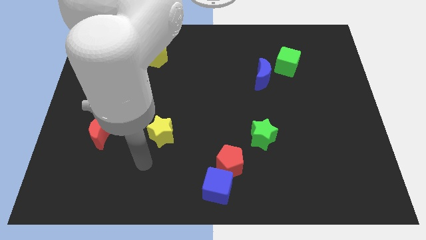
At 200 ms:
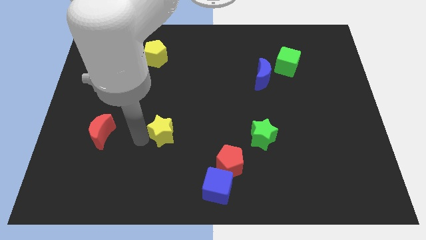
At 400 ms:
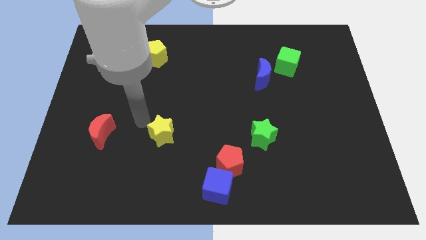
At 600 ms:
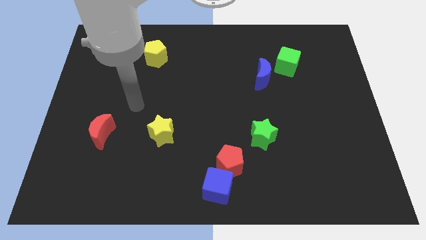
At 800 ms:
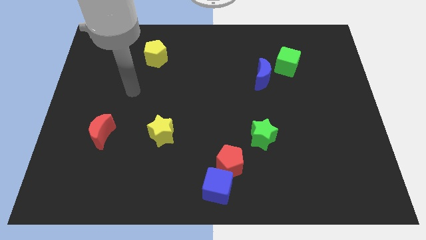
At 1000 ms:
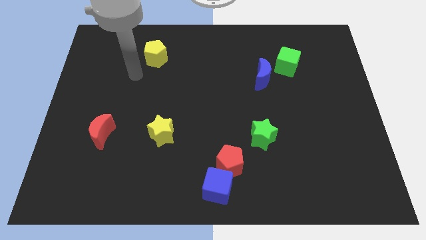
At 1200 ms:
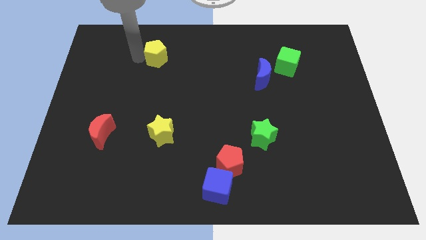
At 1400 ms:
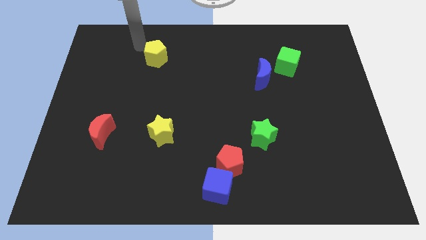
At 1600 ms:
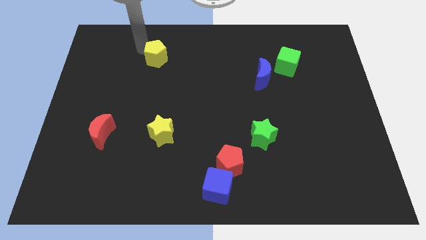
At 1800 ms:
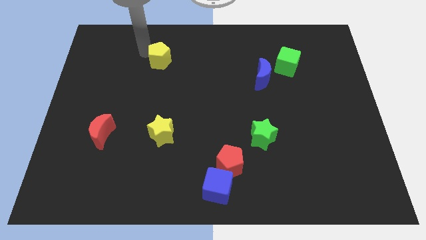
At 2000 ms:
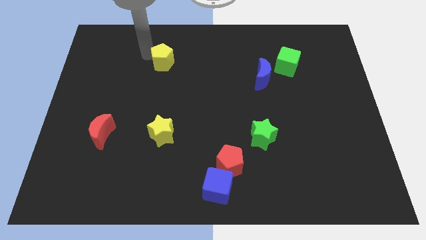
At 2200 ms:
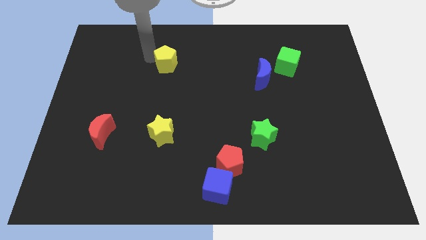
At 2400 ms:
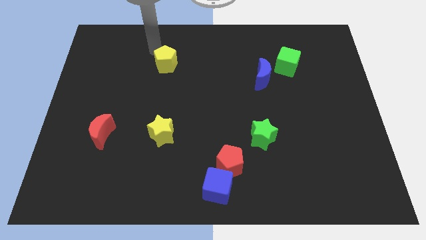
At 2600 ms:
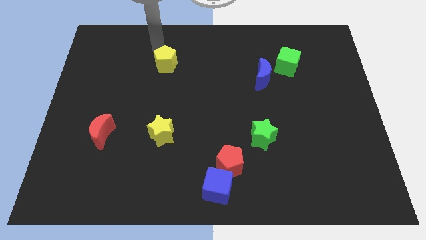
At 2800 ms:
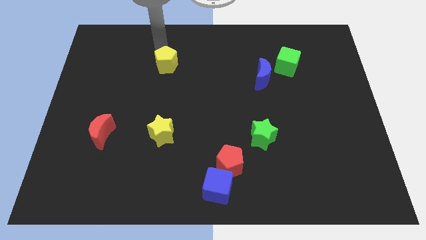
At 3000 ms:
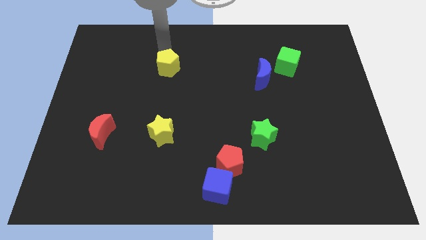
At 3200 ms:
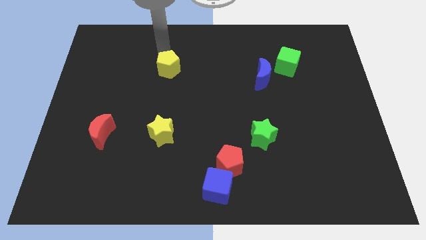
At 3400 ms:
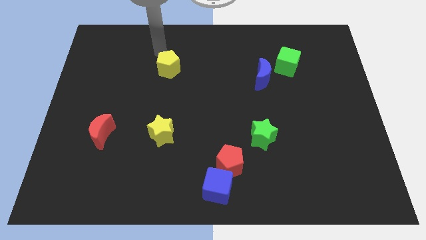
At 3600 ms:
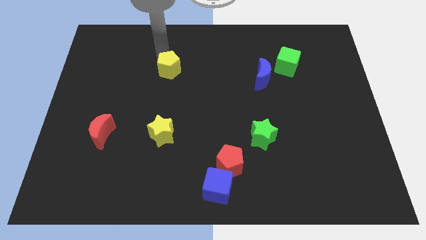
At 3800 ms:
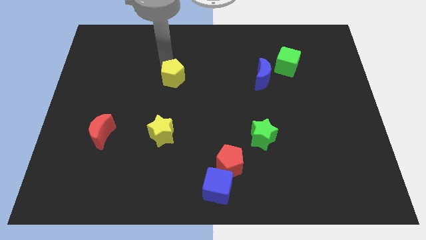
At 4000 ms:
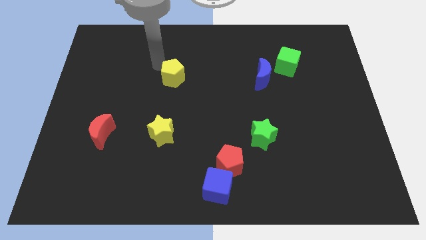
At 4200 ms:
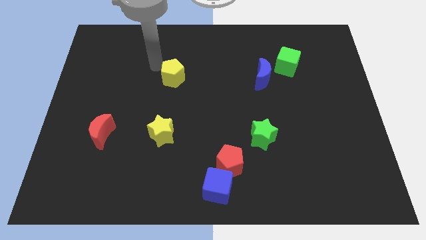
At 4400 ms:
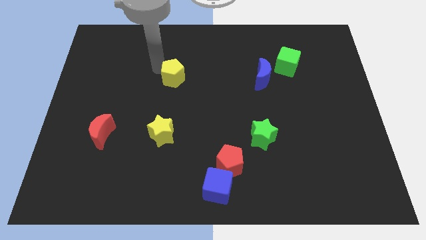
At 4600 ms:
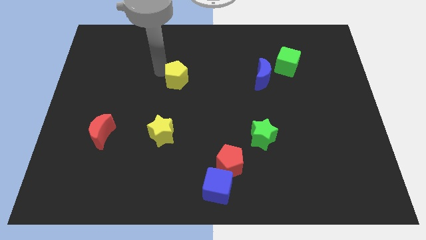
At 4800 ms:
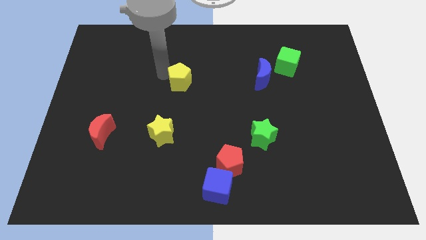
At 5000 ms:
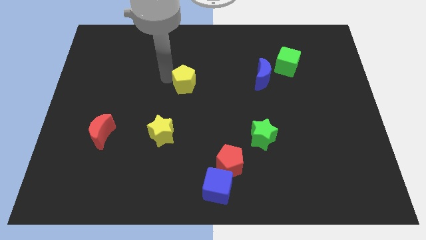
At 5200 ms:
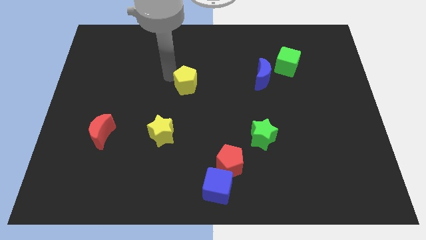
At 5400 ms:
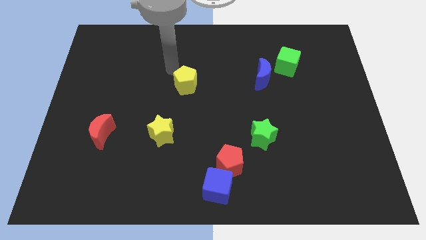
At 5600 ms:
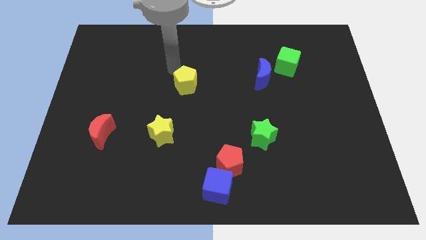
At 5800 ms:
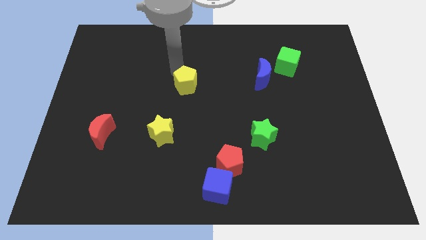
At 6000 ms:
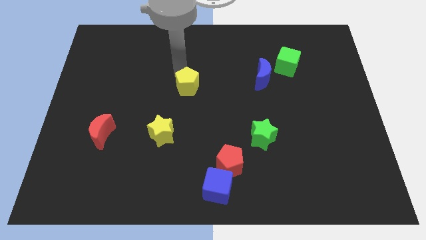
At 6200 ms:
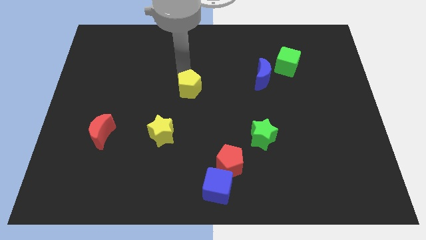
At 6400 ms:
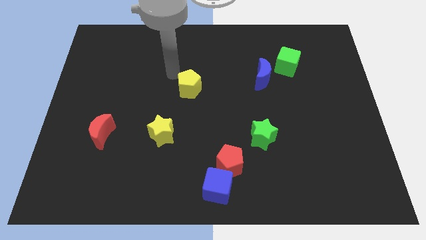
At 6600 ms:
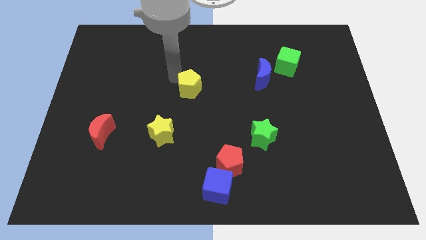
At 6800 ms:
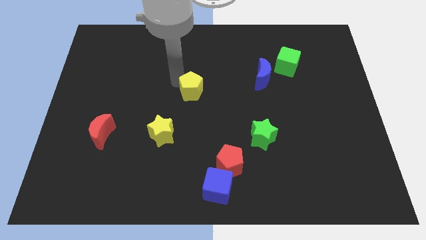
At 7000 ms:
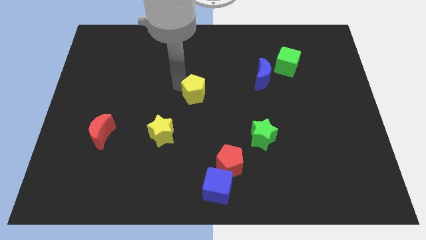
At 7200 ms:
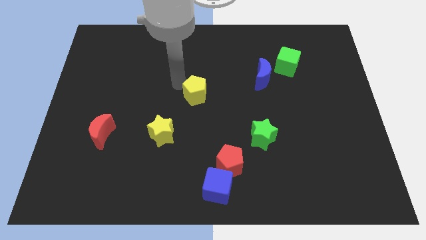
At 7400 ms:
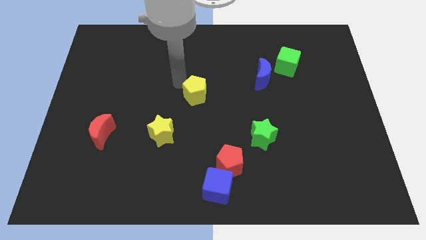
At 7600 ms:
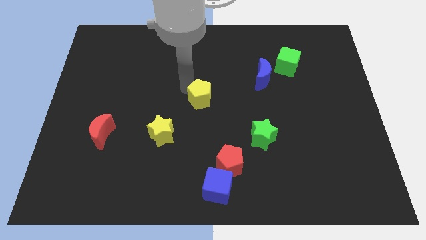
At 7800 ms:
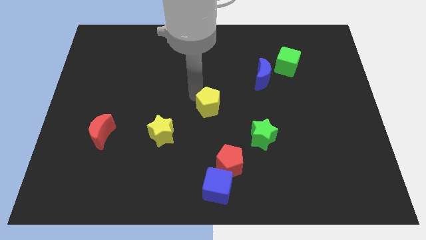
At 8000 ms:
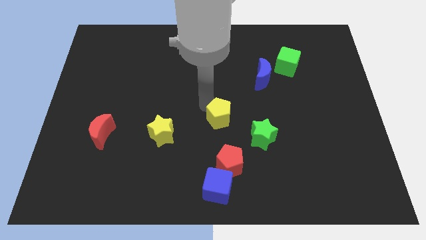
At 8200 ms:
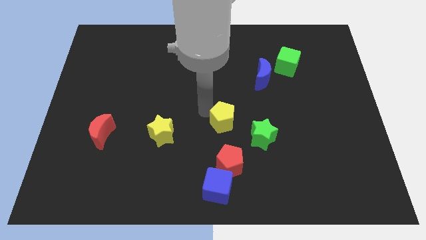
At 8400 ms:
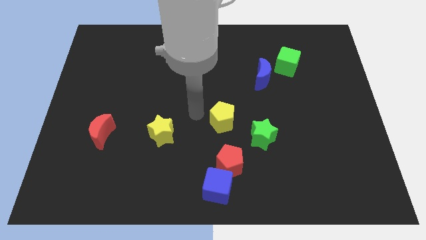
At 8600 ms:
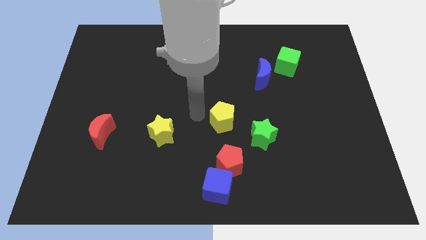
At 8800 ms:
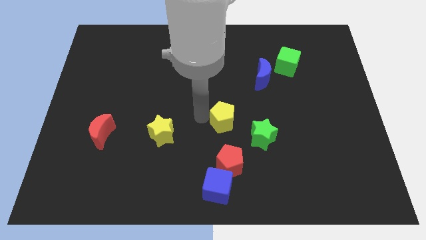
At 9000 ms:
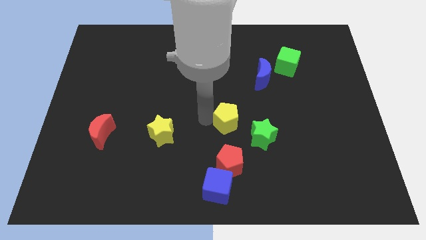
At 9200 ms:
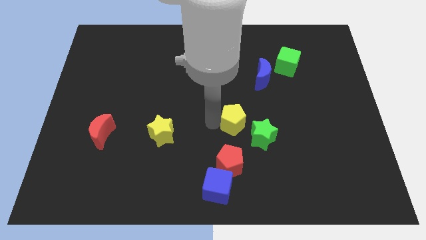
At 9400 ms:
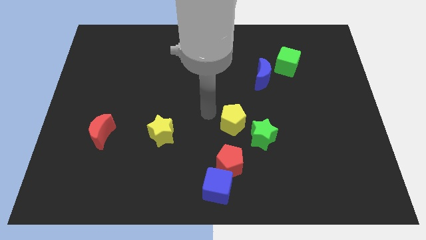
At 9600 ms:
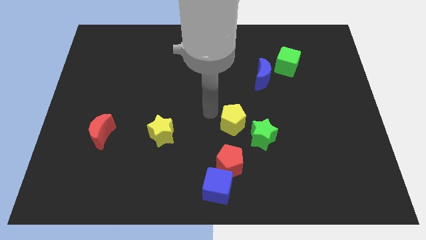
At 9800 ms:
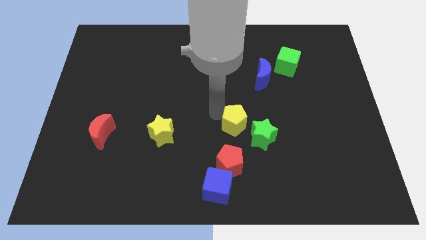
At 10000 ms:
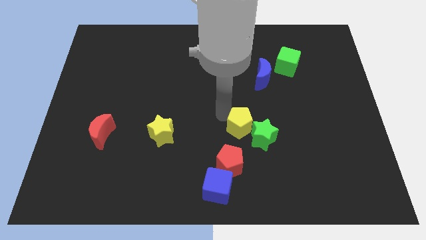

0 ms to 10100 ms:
slide the yellow pentagon next to the green star

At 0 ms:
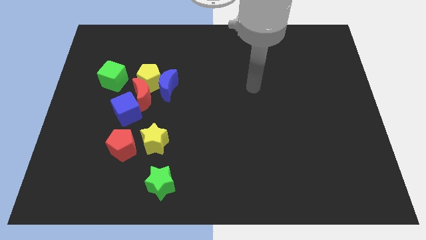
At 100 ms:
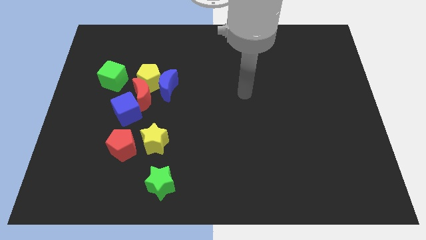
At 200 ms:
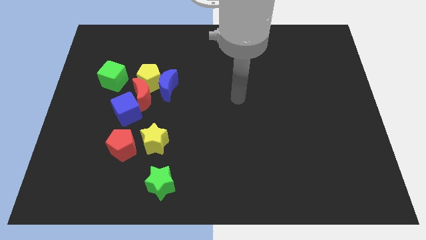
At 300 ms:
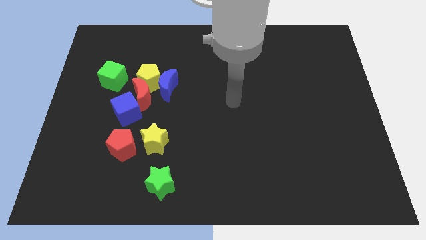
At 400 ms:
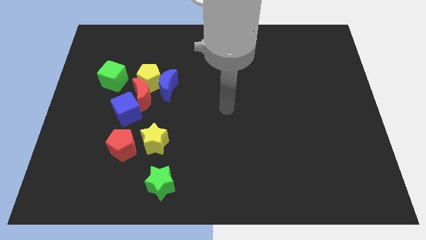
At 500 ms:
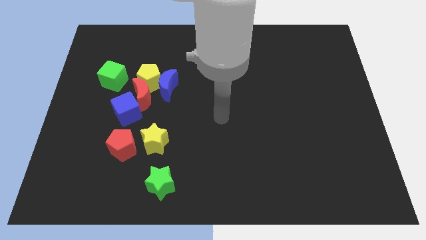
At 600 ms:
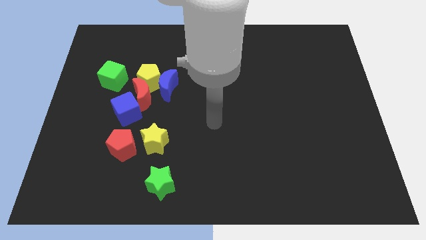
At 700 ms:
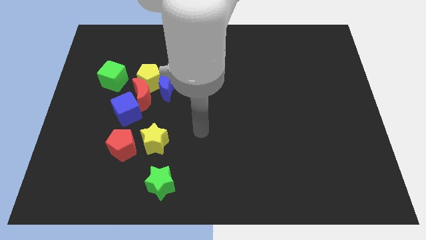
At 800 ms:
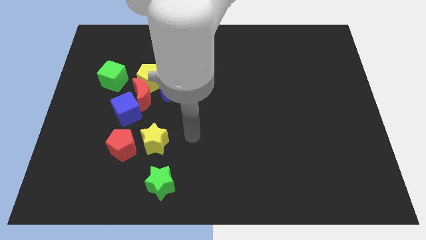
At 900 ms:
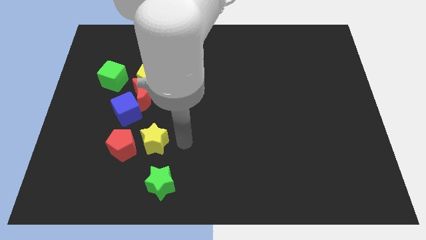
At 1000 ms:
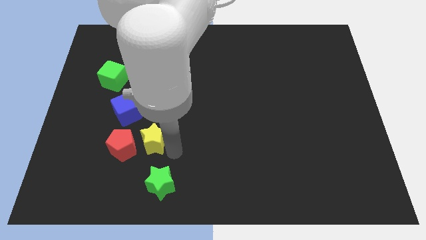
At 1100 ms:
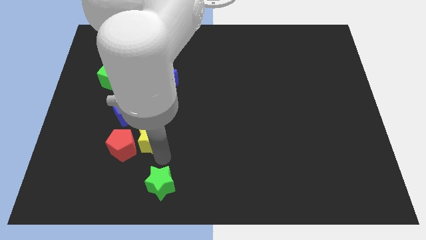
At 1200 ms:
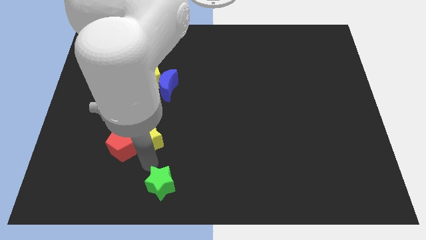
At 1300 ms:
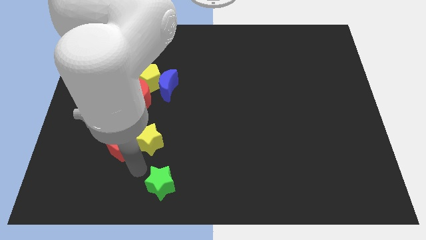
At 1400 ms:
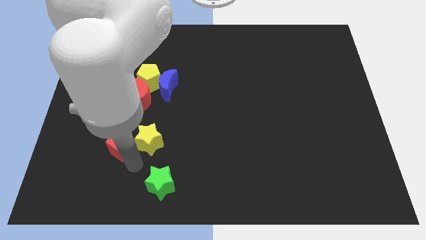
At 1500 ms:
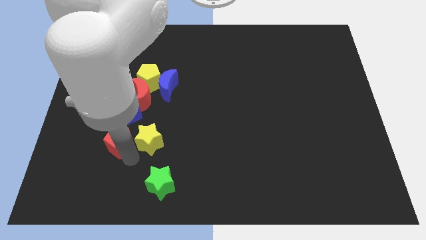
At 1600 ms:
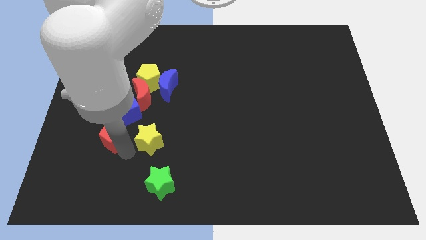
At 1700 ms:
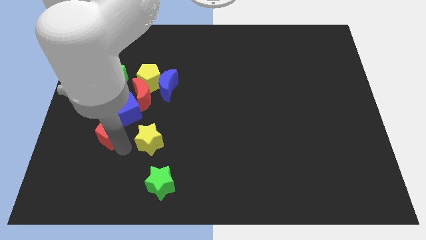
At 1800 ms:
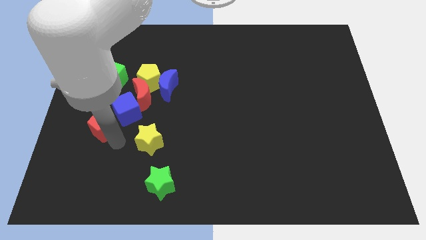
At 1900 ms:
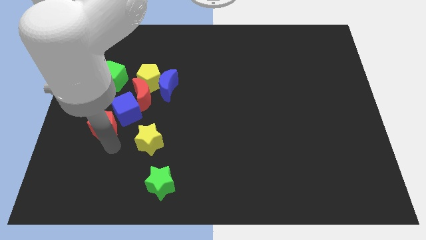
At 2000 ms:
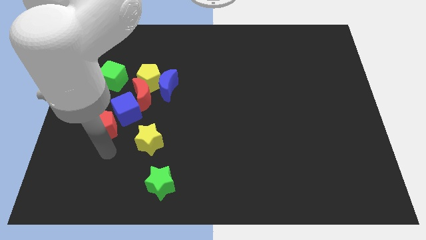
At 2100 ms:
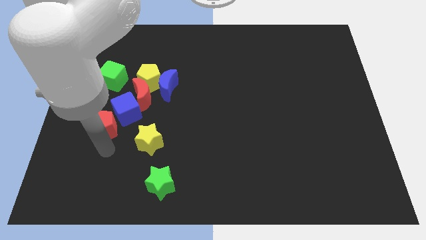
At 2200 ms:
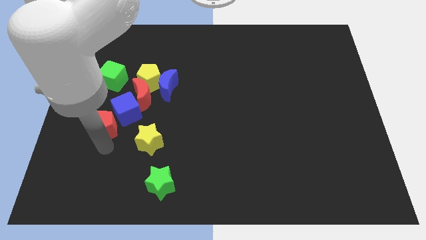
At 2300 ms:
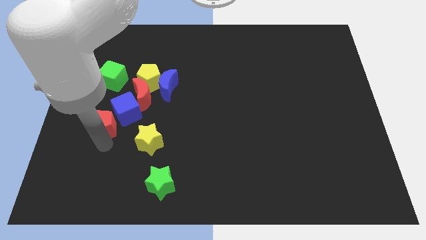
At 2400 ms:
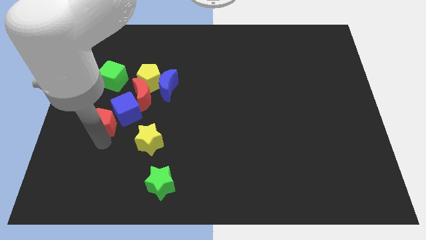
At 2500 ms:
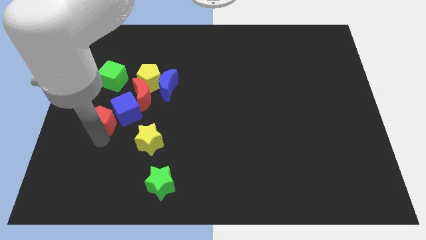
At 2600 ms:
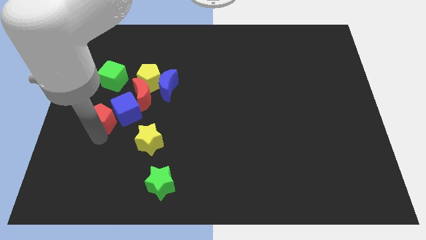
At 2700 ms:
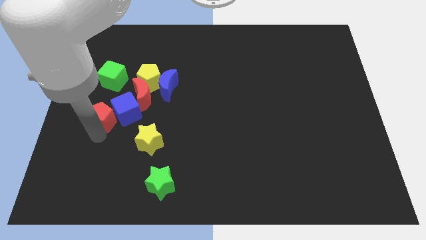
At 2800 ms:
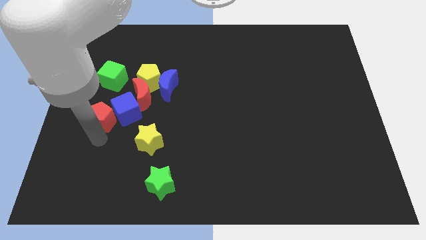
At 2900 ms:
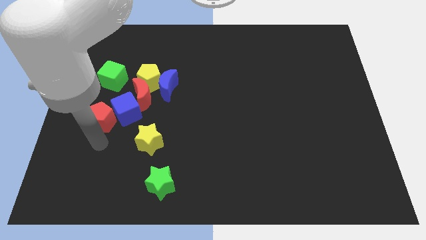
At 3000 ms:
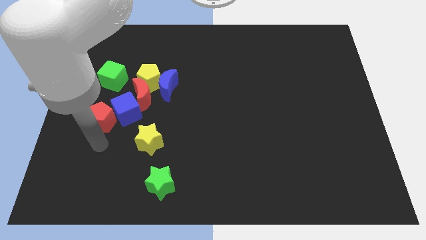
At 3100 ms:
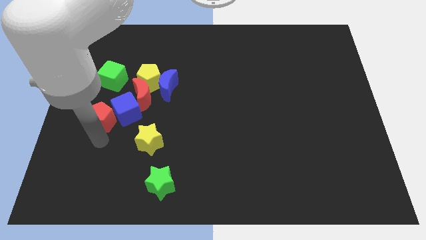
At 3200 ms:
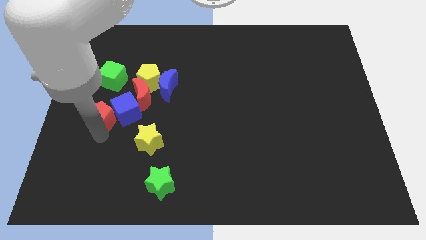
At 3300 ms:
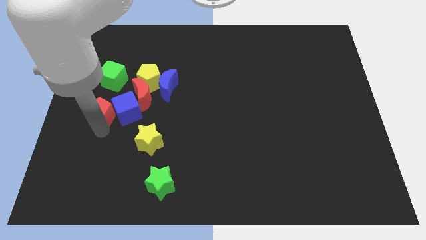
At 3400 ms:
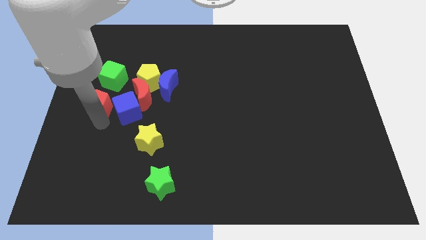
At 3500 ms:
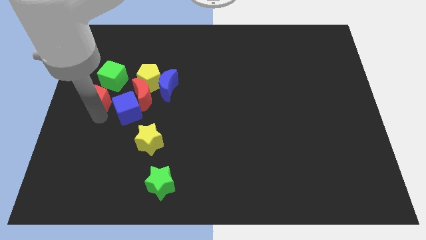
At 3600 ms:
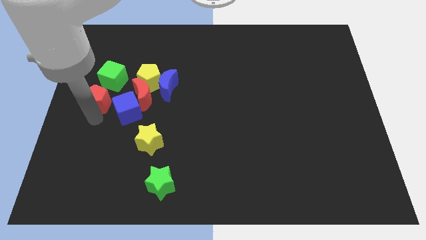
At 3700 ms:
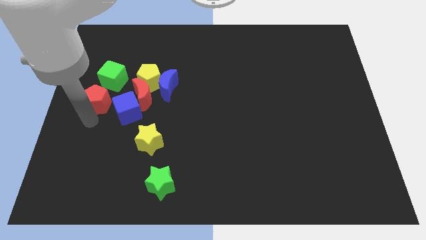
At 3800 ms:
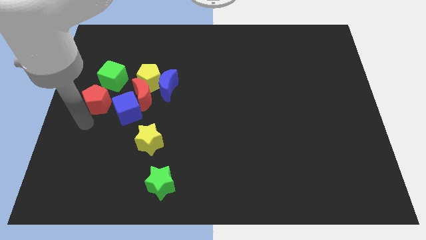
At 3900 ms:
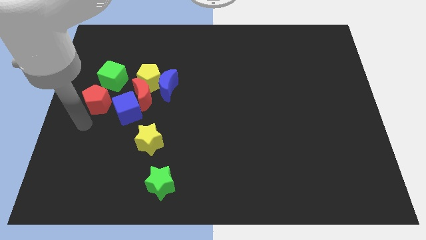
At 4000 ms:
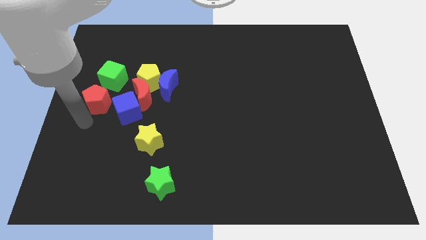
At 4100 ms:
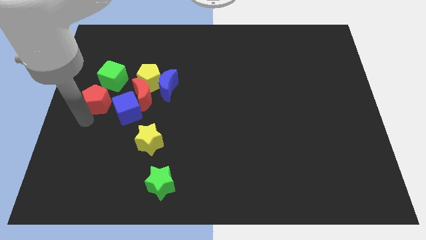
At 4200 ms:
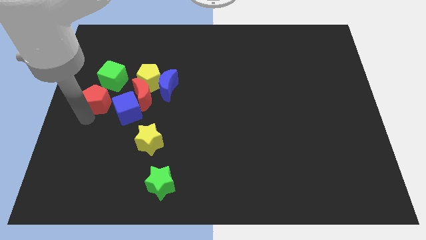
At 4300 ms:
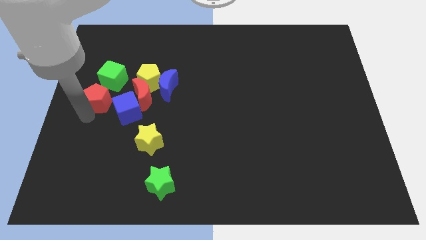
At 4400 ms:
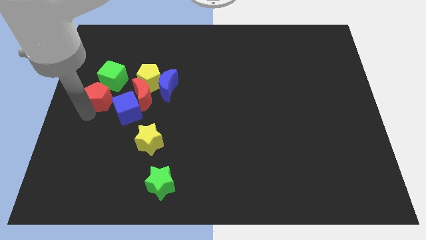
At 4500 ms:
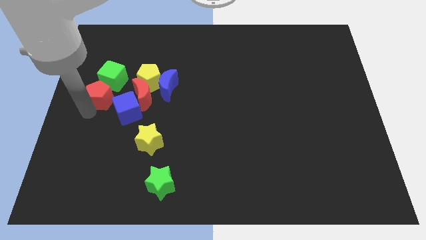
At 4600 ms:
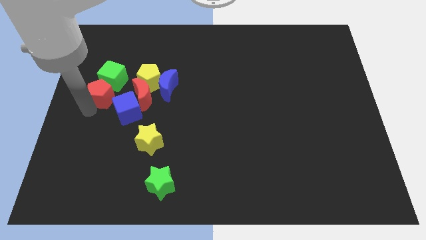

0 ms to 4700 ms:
slide the red pentagon next to the green cube
